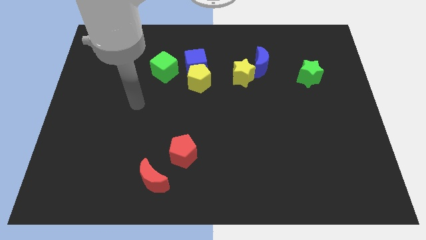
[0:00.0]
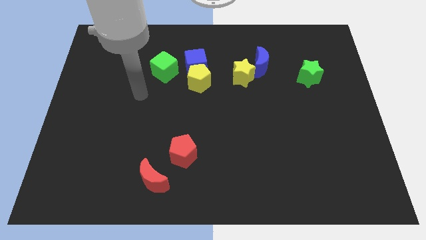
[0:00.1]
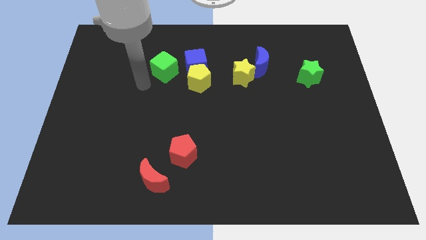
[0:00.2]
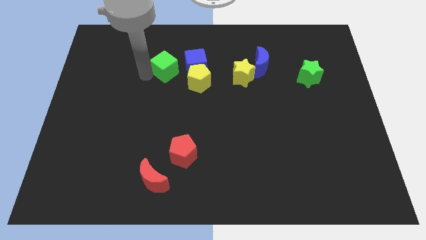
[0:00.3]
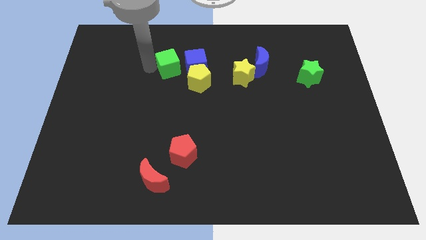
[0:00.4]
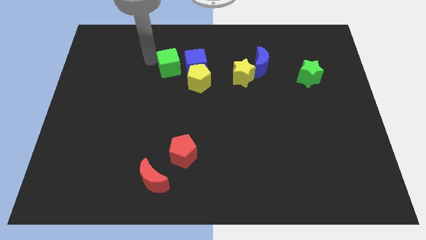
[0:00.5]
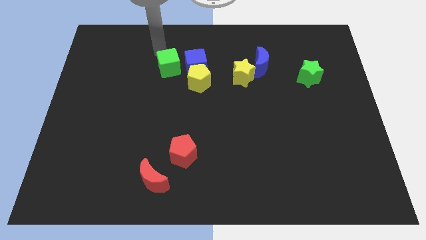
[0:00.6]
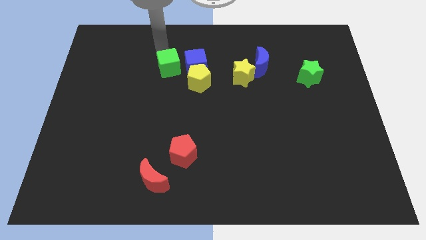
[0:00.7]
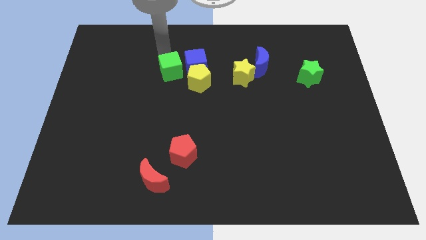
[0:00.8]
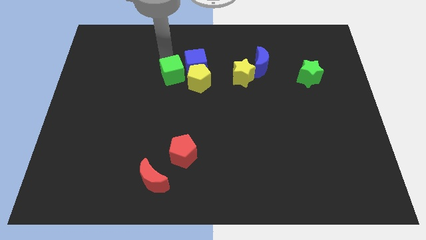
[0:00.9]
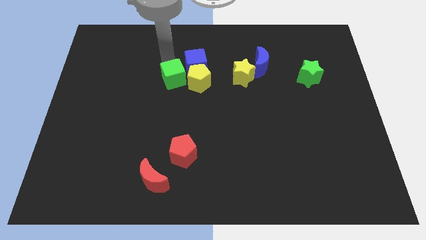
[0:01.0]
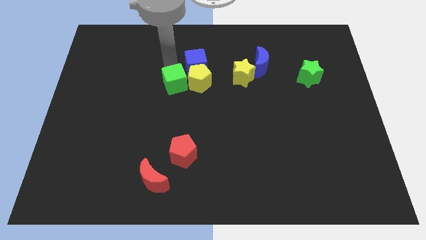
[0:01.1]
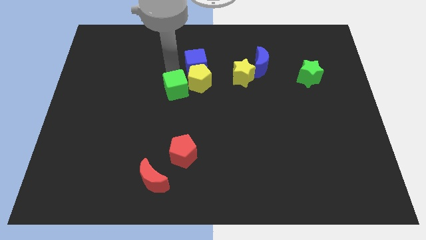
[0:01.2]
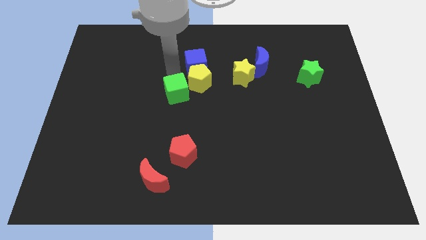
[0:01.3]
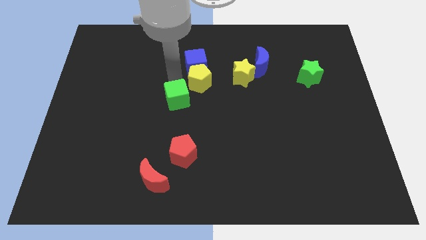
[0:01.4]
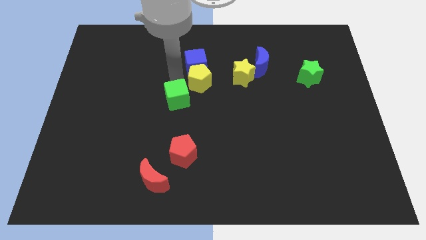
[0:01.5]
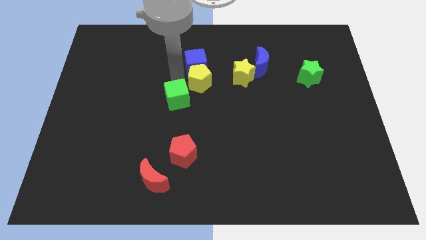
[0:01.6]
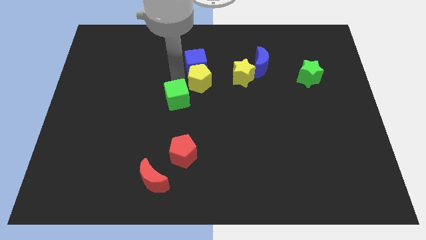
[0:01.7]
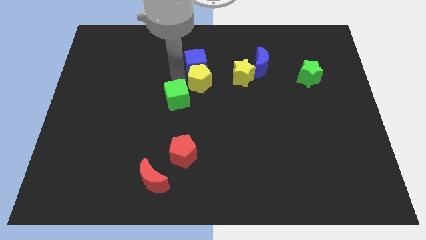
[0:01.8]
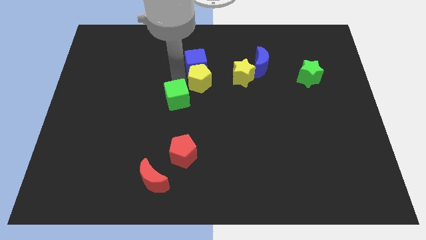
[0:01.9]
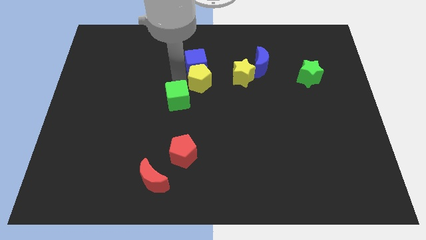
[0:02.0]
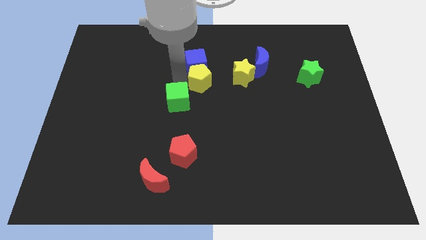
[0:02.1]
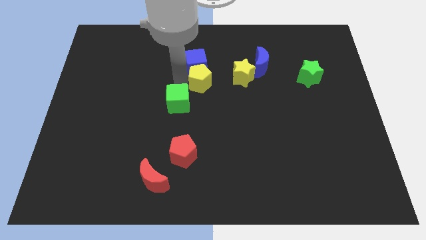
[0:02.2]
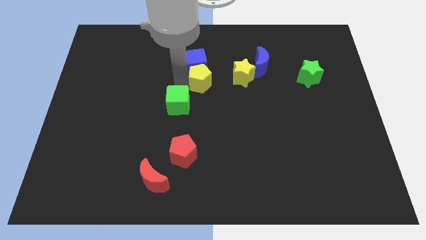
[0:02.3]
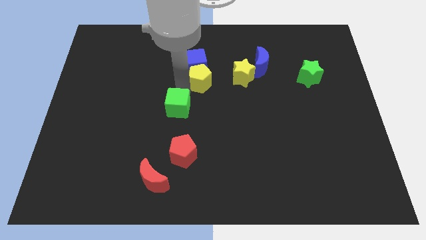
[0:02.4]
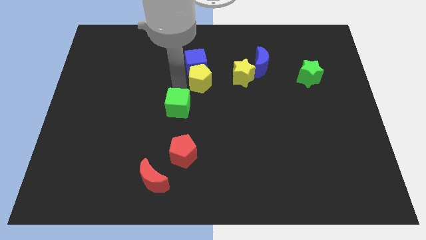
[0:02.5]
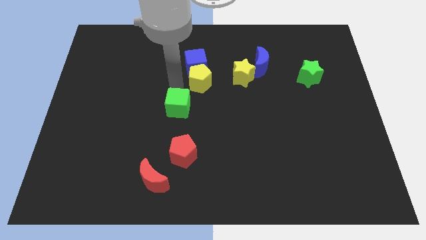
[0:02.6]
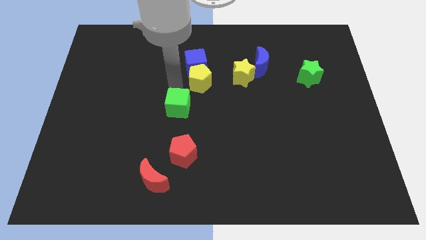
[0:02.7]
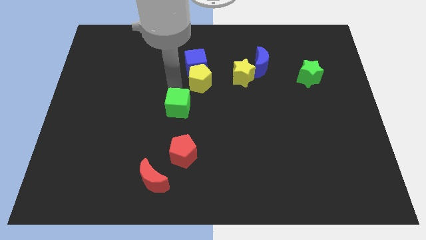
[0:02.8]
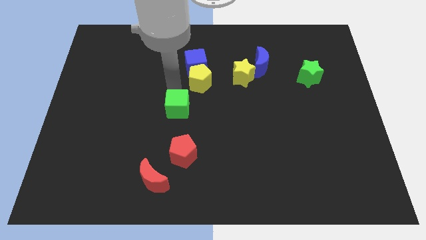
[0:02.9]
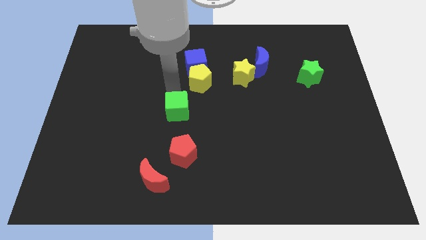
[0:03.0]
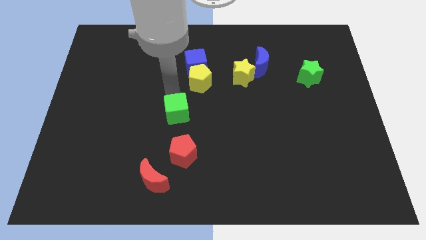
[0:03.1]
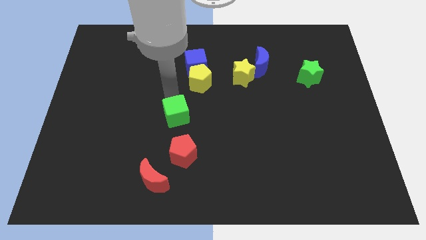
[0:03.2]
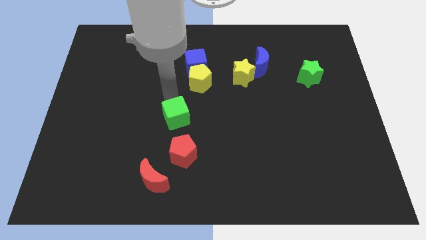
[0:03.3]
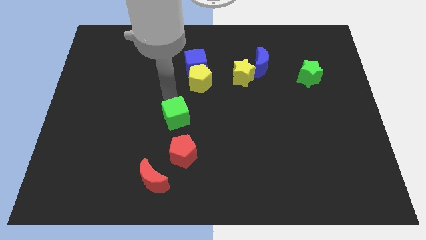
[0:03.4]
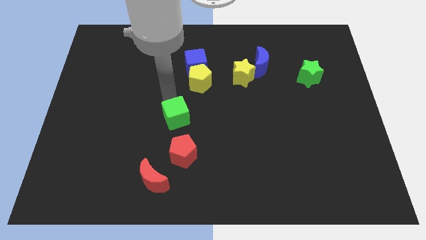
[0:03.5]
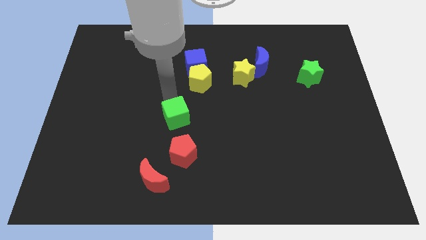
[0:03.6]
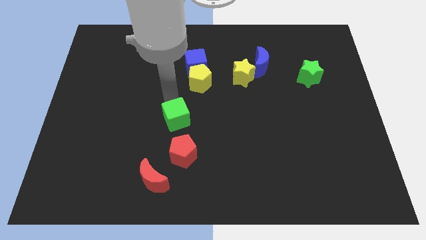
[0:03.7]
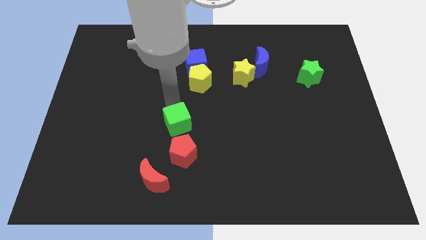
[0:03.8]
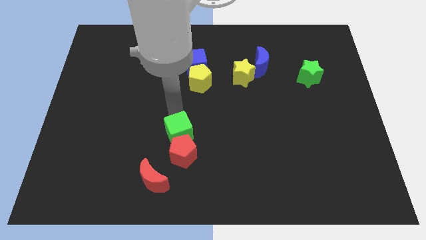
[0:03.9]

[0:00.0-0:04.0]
move the green cube close to the red pentagon

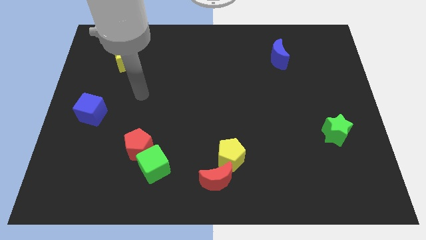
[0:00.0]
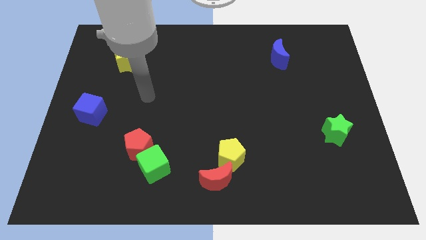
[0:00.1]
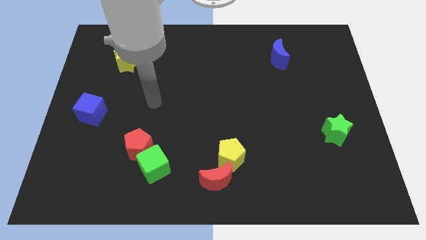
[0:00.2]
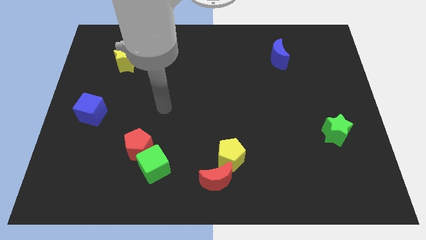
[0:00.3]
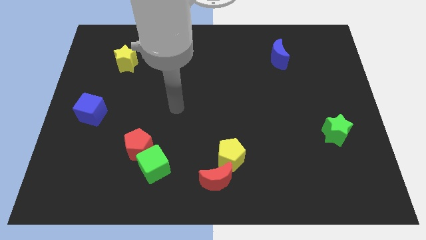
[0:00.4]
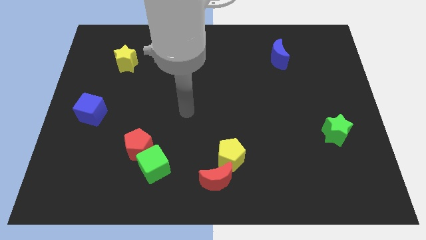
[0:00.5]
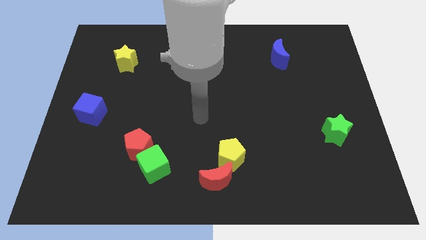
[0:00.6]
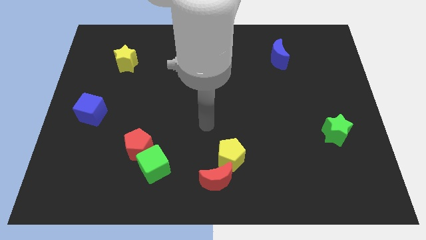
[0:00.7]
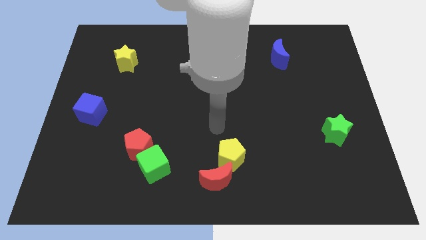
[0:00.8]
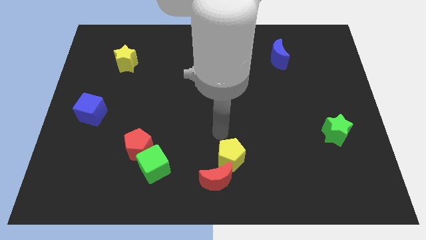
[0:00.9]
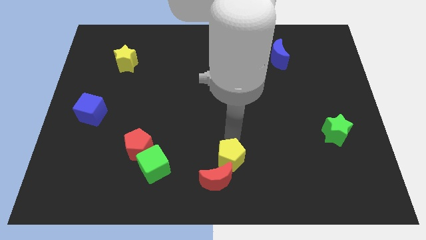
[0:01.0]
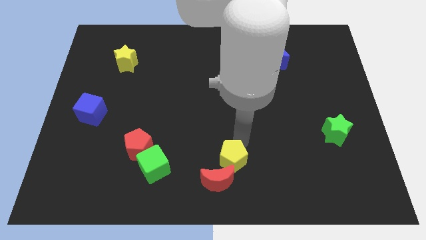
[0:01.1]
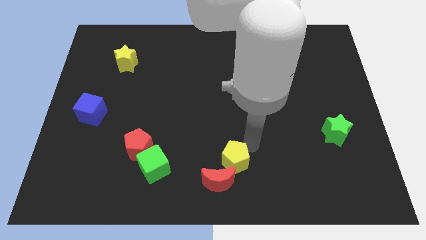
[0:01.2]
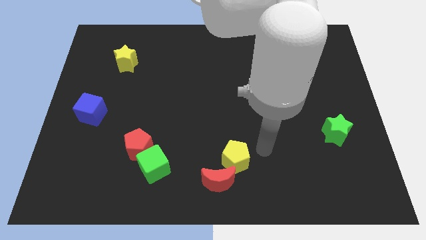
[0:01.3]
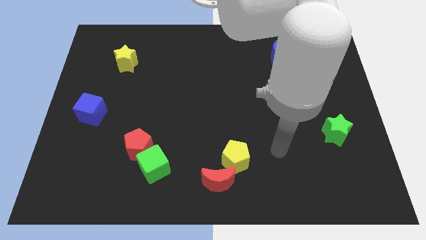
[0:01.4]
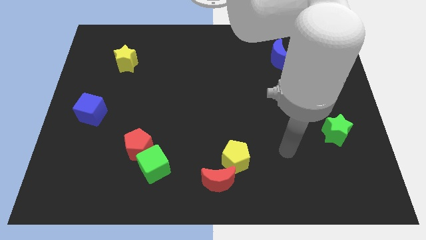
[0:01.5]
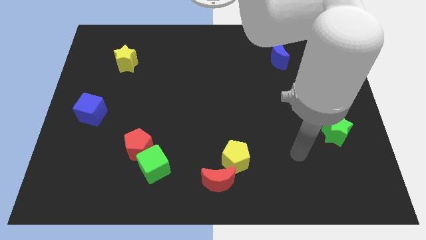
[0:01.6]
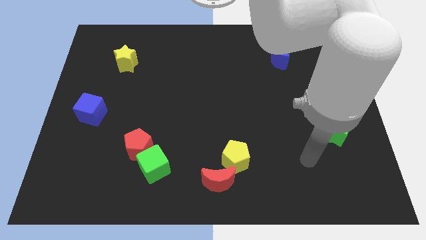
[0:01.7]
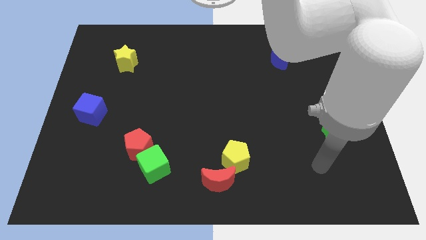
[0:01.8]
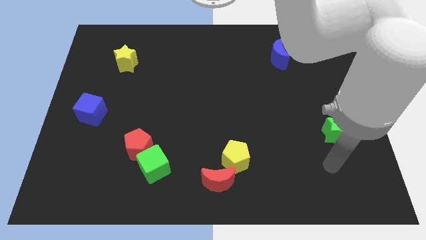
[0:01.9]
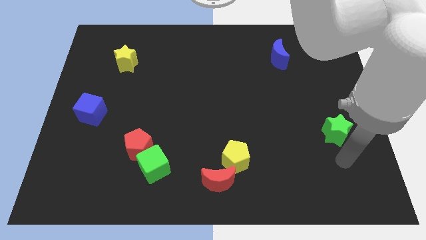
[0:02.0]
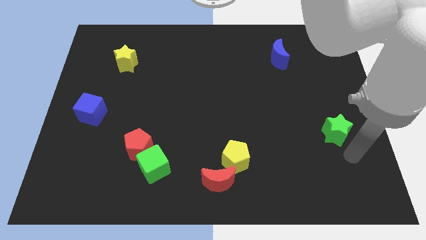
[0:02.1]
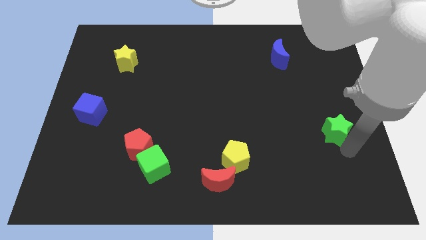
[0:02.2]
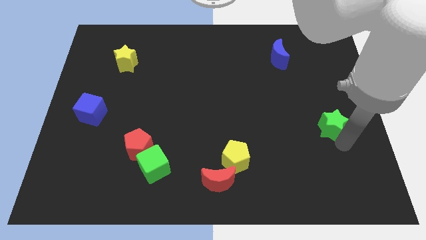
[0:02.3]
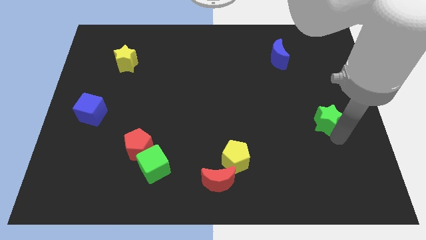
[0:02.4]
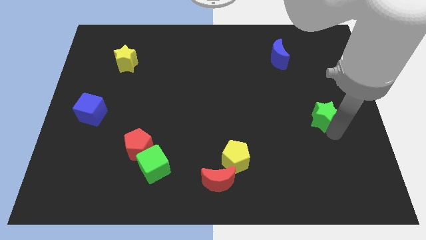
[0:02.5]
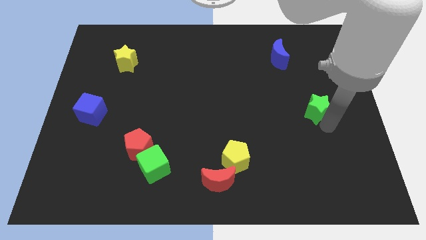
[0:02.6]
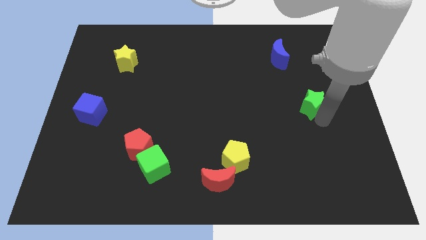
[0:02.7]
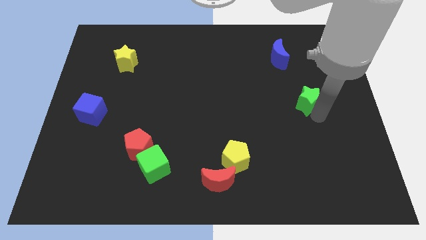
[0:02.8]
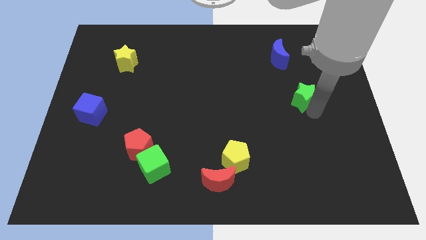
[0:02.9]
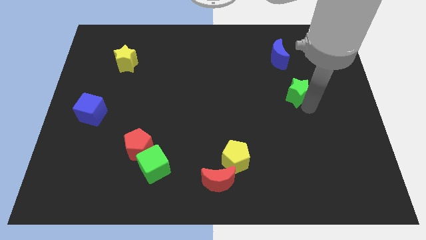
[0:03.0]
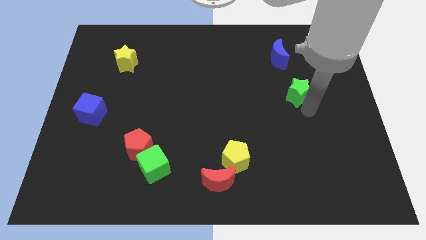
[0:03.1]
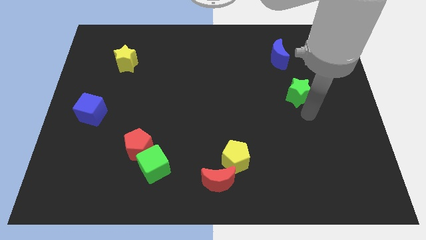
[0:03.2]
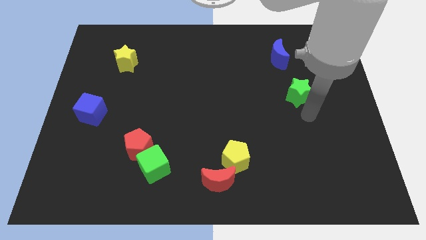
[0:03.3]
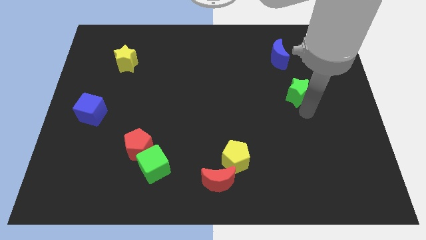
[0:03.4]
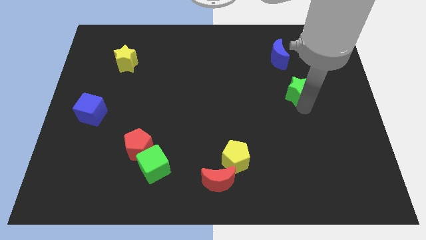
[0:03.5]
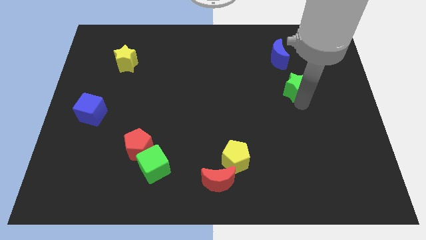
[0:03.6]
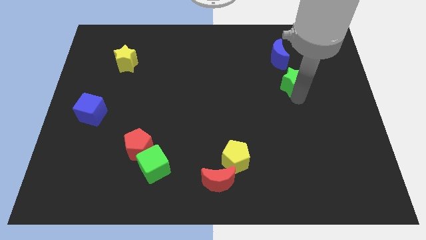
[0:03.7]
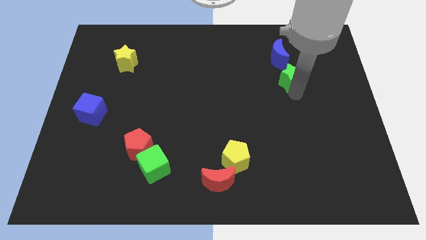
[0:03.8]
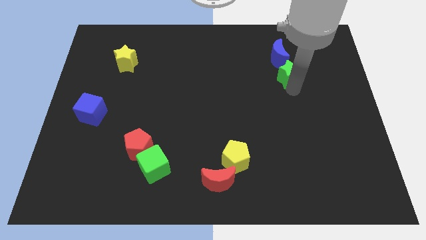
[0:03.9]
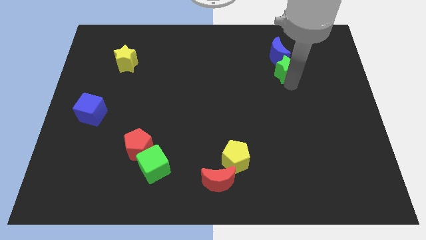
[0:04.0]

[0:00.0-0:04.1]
move the green star to the blue moon
